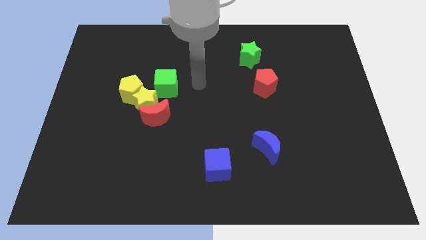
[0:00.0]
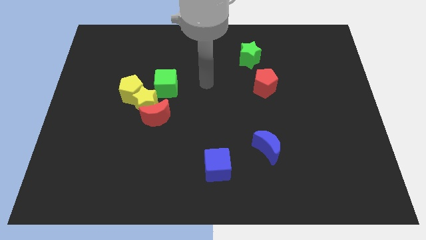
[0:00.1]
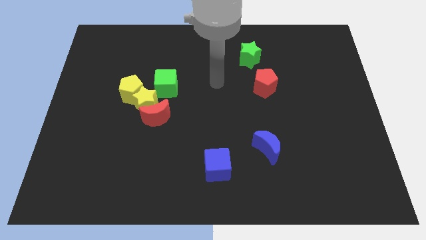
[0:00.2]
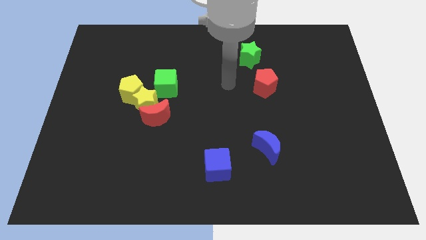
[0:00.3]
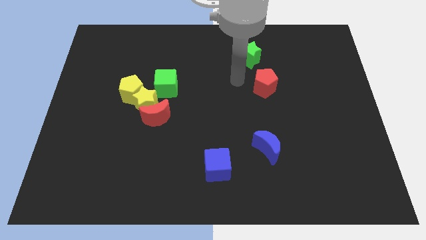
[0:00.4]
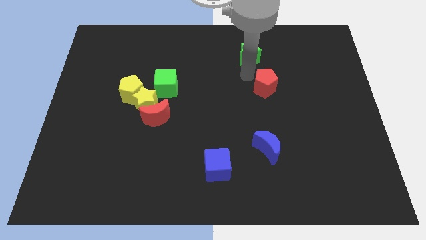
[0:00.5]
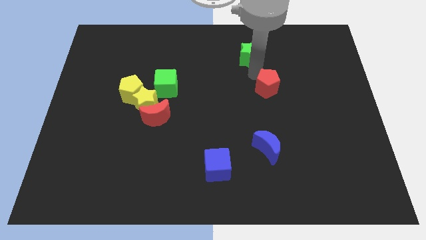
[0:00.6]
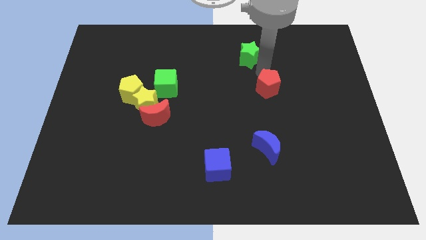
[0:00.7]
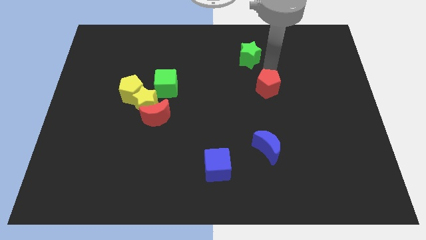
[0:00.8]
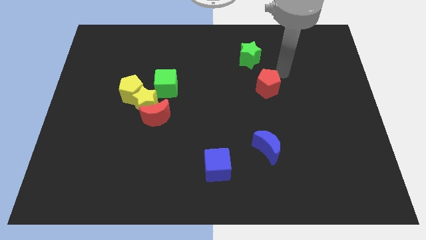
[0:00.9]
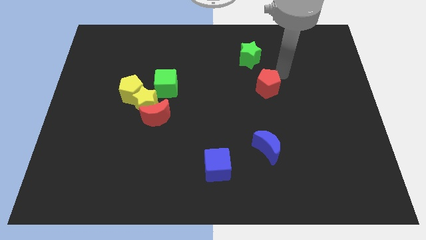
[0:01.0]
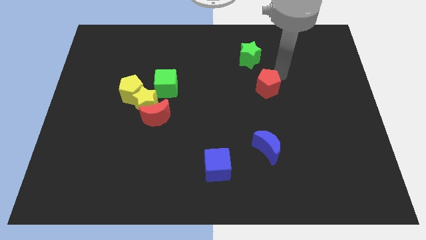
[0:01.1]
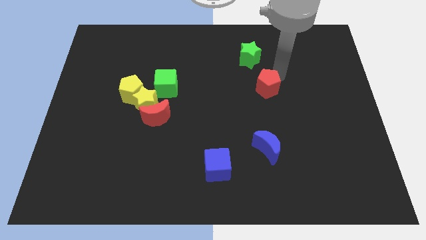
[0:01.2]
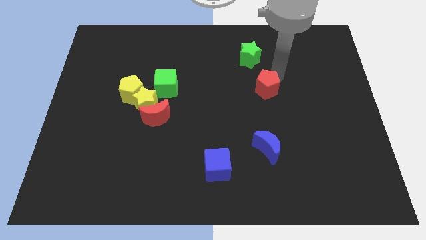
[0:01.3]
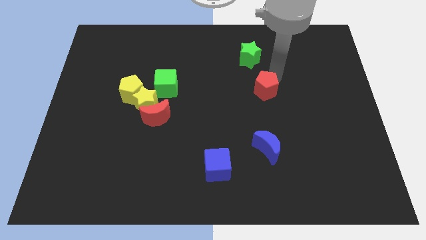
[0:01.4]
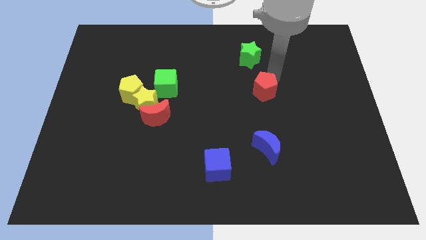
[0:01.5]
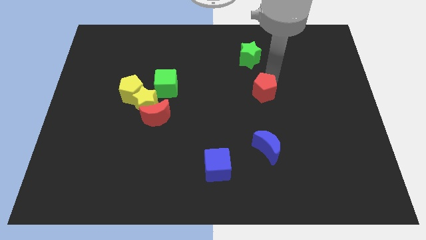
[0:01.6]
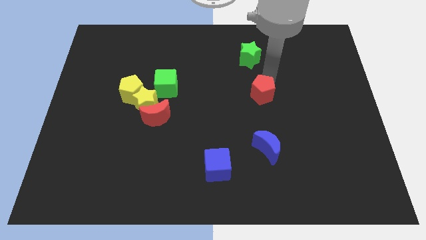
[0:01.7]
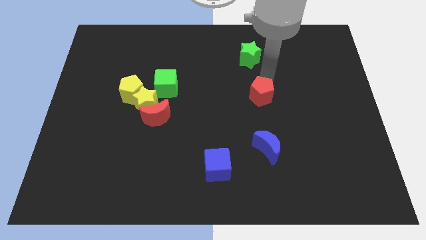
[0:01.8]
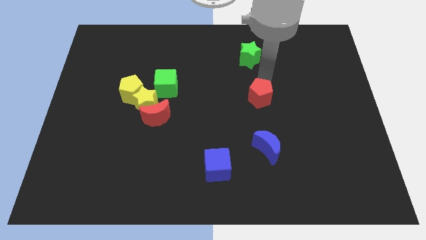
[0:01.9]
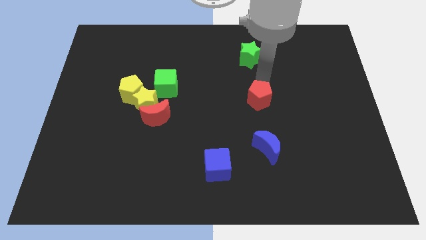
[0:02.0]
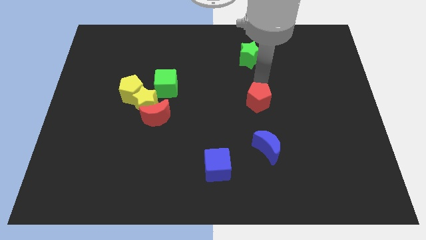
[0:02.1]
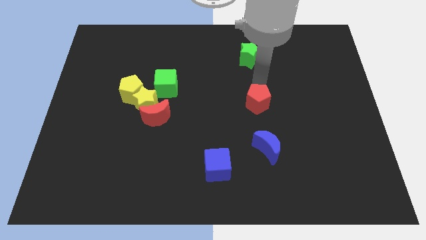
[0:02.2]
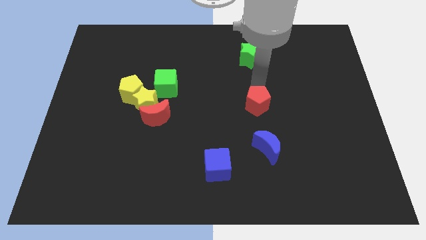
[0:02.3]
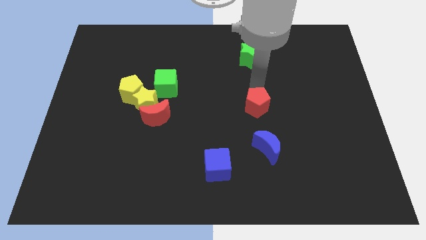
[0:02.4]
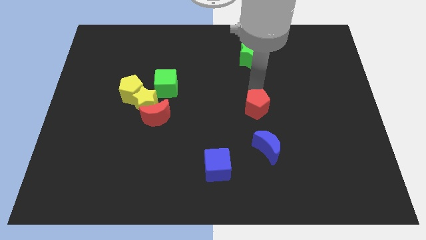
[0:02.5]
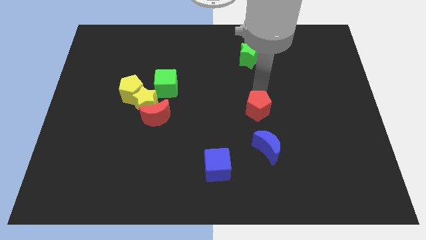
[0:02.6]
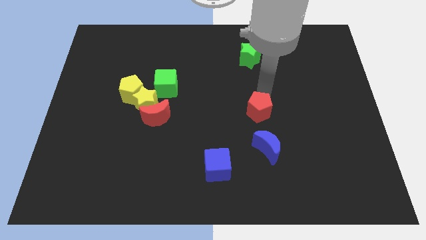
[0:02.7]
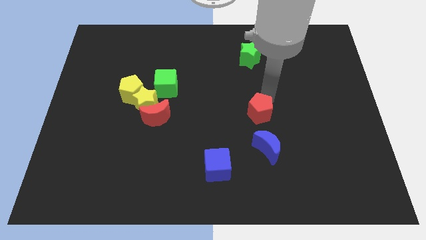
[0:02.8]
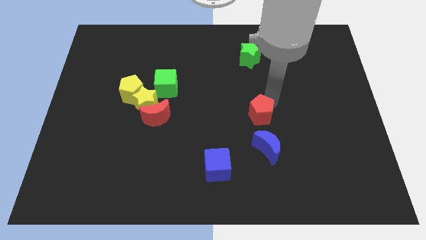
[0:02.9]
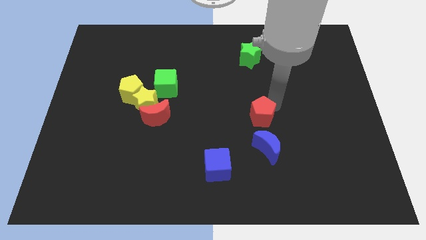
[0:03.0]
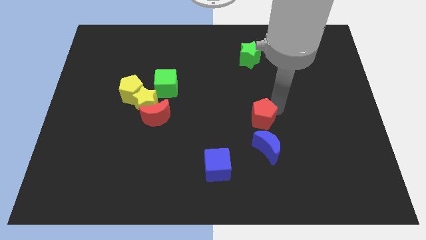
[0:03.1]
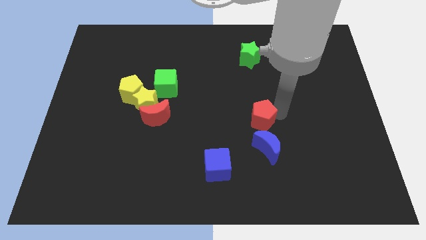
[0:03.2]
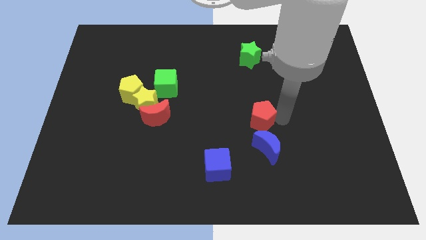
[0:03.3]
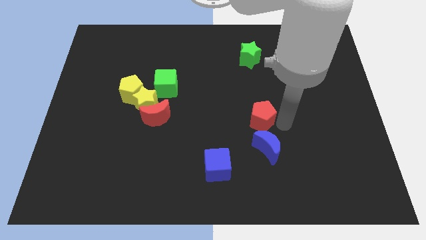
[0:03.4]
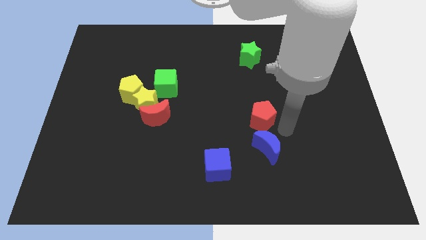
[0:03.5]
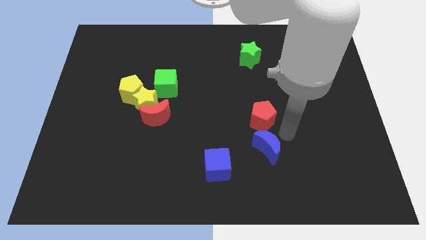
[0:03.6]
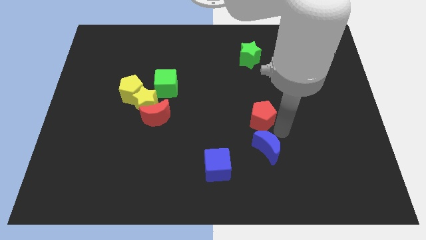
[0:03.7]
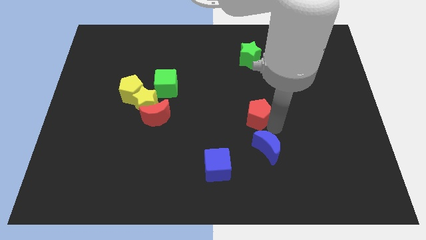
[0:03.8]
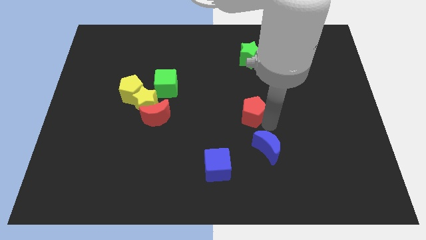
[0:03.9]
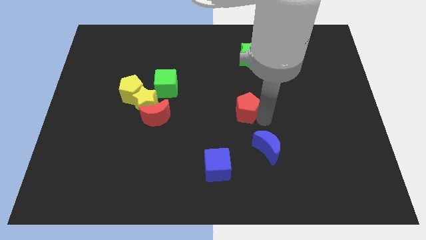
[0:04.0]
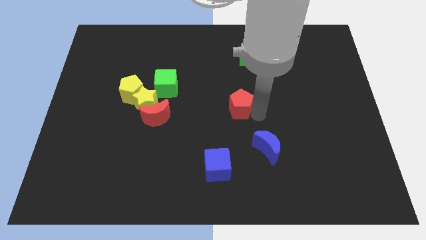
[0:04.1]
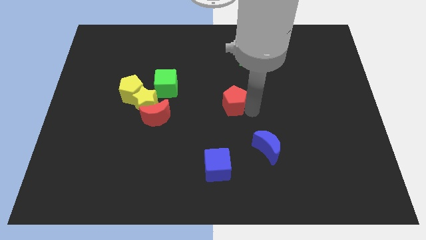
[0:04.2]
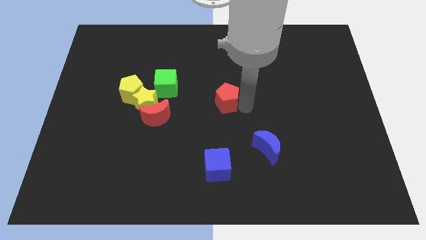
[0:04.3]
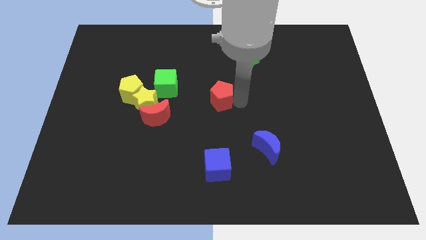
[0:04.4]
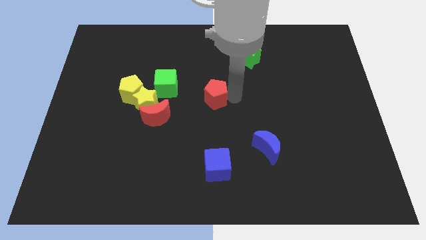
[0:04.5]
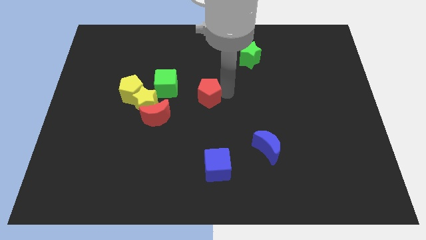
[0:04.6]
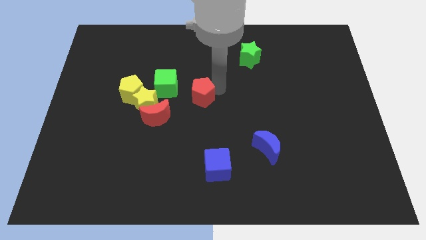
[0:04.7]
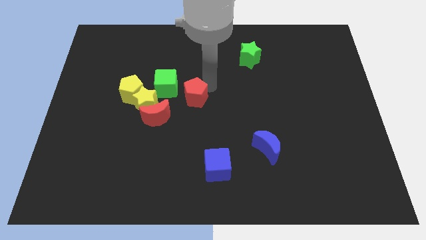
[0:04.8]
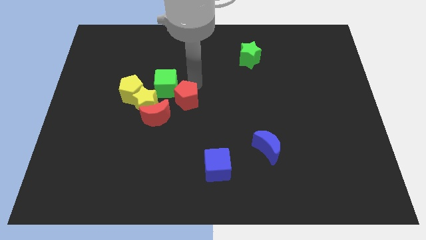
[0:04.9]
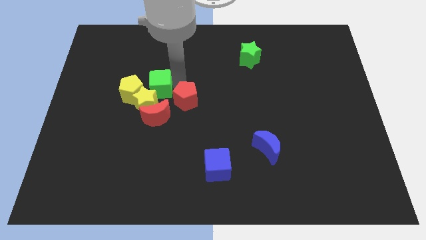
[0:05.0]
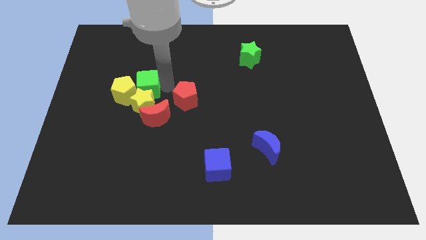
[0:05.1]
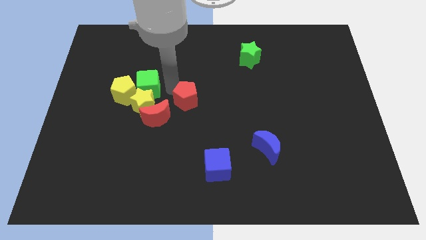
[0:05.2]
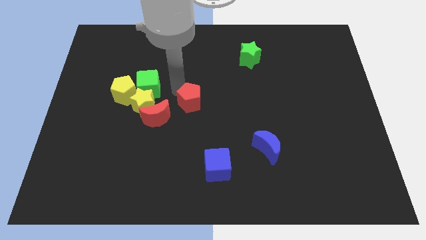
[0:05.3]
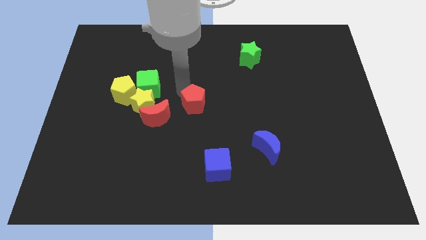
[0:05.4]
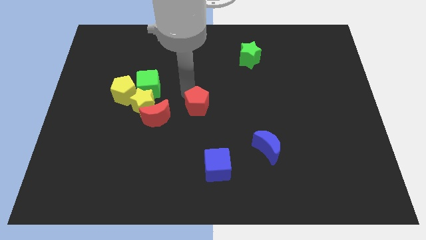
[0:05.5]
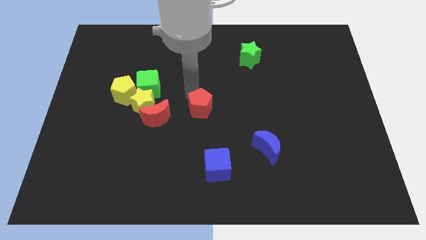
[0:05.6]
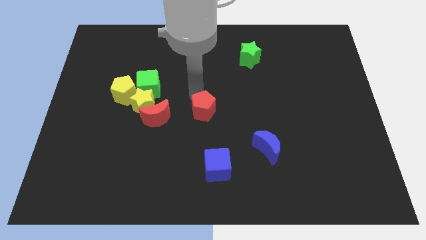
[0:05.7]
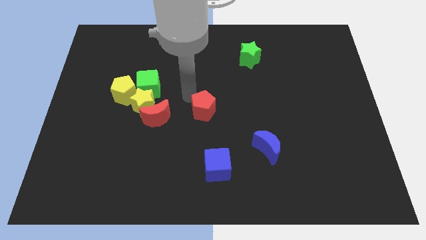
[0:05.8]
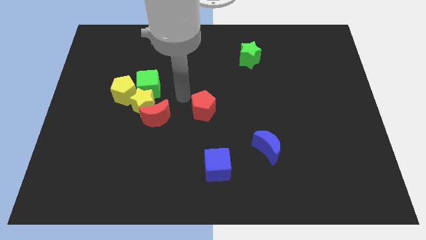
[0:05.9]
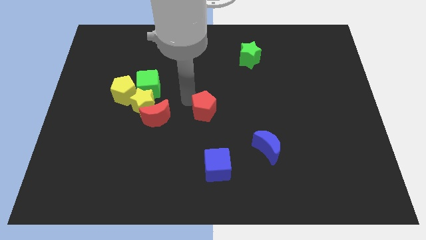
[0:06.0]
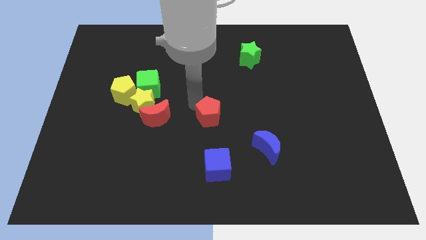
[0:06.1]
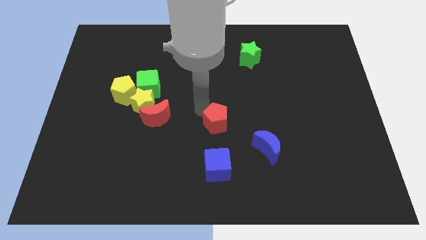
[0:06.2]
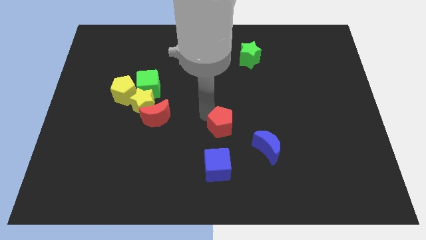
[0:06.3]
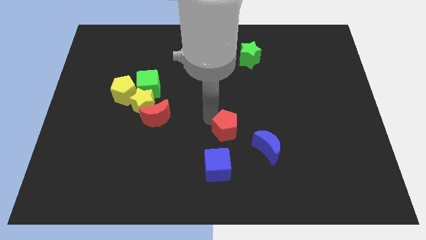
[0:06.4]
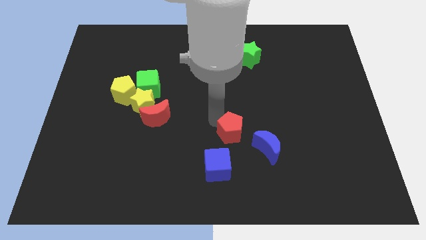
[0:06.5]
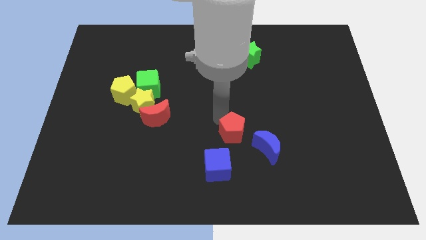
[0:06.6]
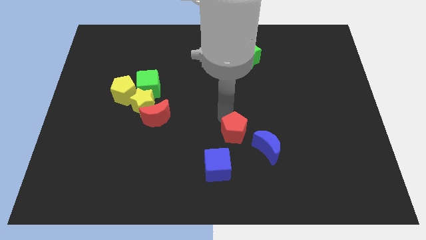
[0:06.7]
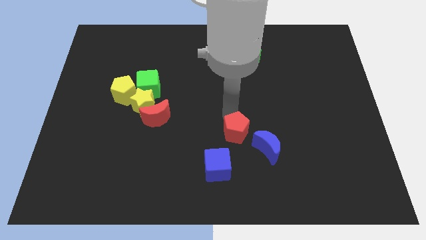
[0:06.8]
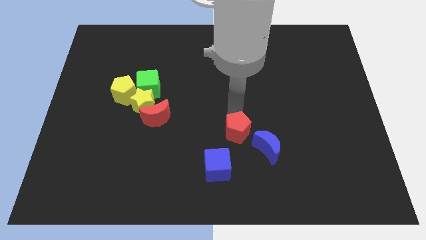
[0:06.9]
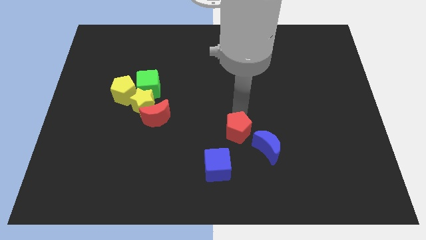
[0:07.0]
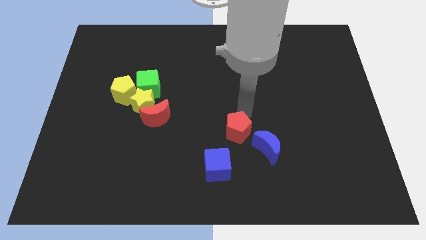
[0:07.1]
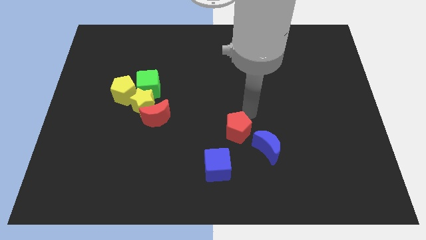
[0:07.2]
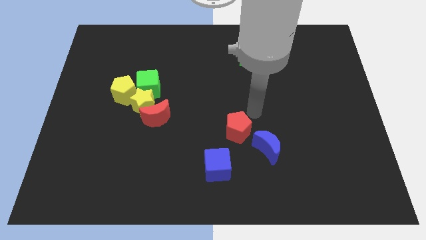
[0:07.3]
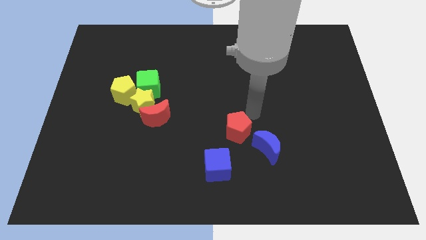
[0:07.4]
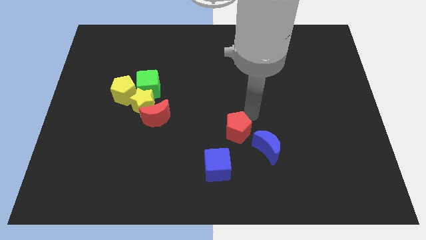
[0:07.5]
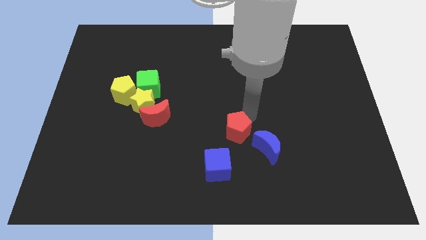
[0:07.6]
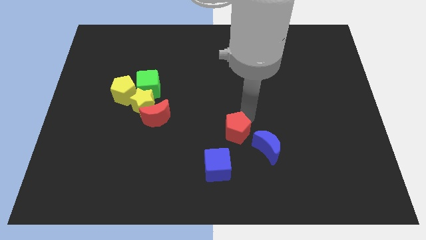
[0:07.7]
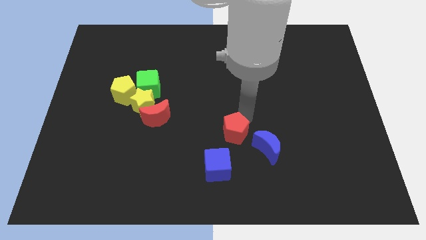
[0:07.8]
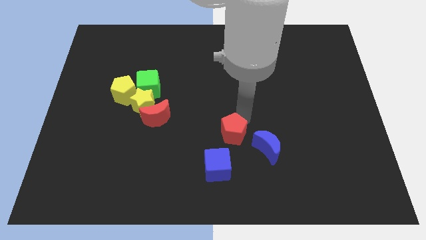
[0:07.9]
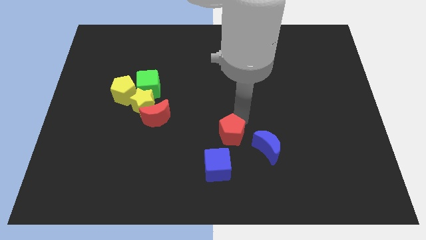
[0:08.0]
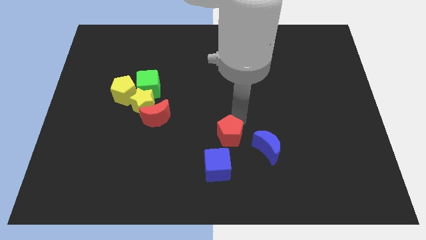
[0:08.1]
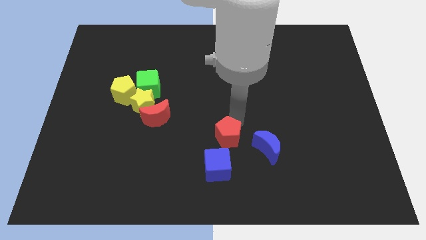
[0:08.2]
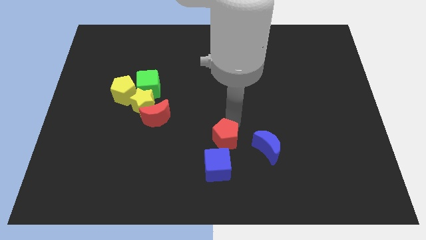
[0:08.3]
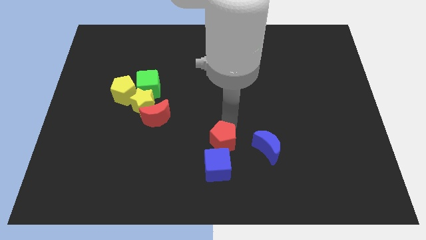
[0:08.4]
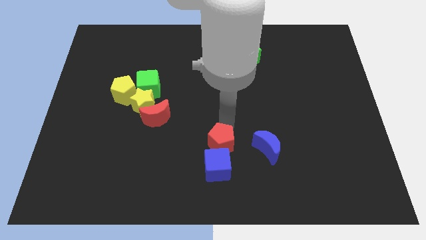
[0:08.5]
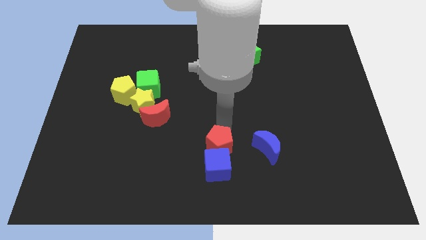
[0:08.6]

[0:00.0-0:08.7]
slide the red pentagon next to the blue cube
